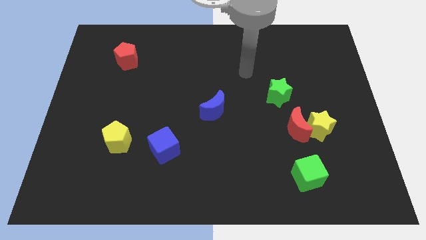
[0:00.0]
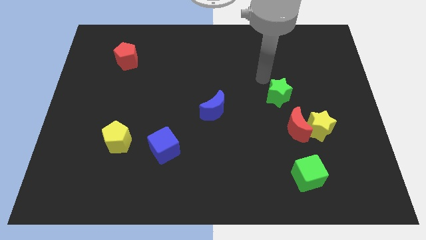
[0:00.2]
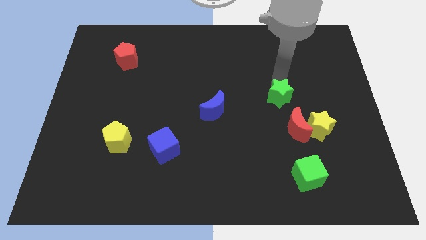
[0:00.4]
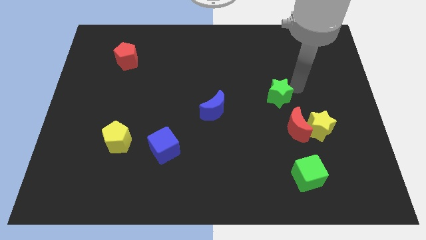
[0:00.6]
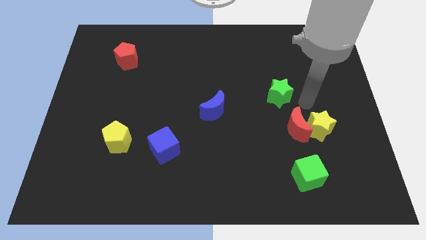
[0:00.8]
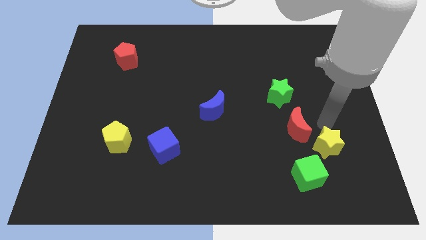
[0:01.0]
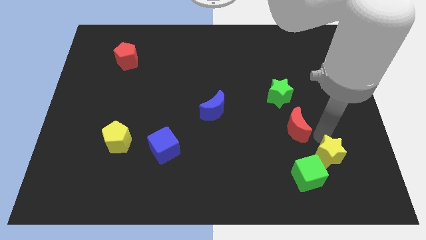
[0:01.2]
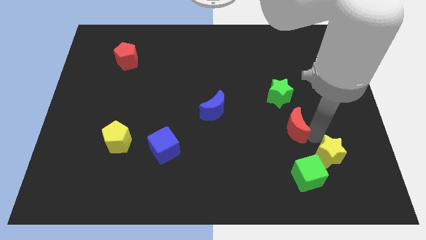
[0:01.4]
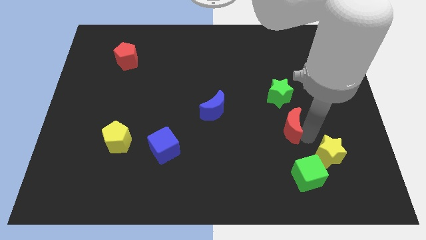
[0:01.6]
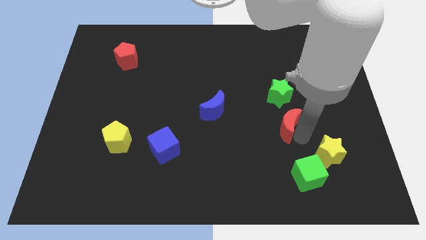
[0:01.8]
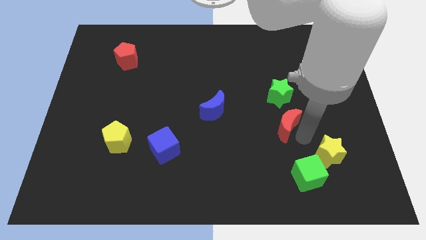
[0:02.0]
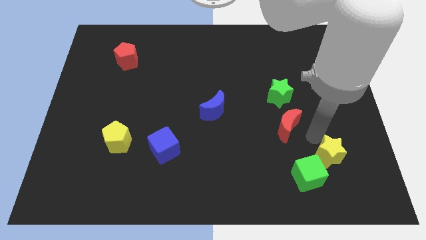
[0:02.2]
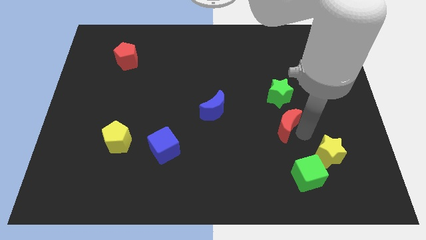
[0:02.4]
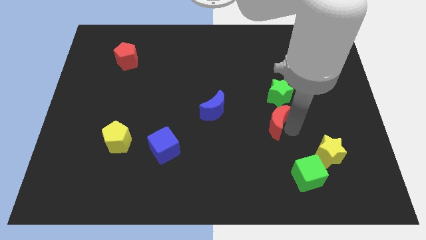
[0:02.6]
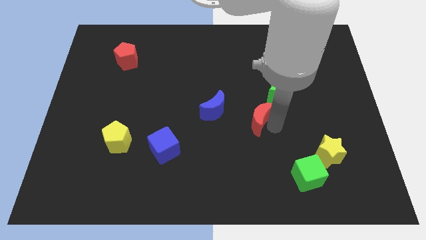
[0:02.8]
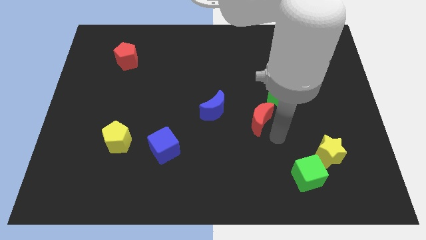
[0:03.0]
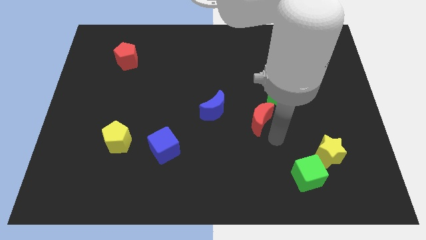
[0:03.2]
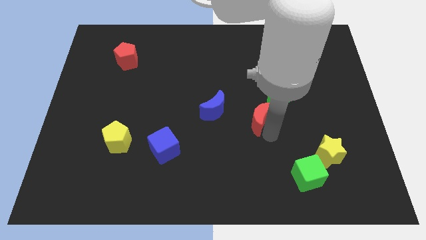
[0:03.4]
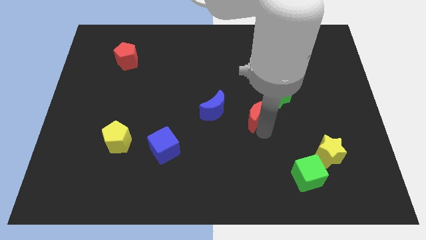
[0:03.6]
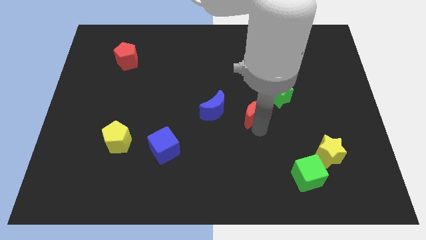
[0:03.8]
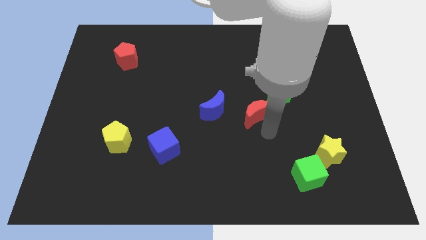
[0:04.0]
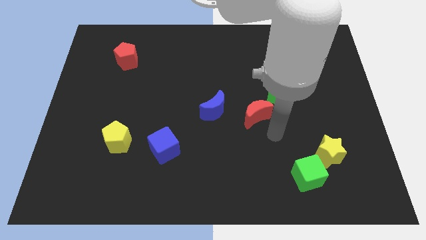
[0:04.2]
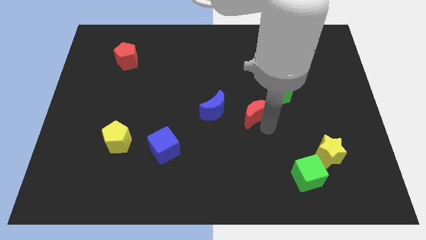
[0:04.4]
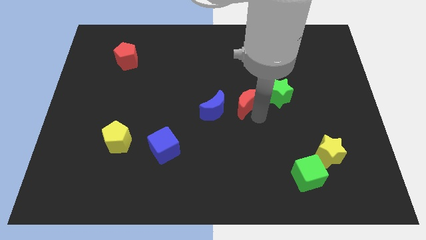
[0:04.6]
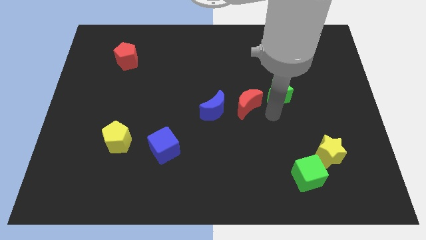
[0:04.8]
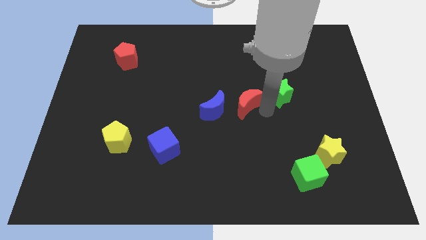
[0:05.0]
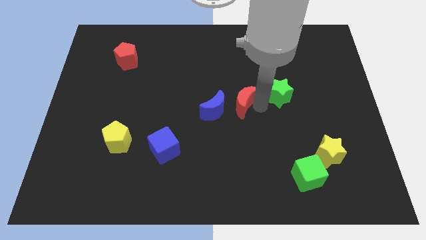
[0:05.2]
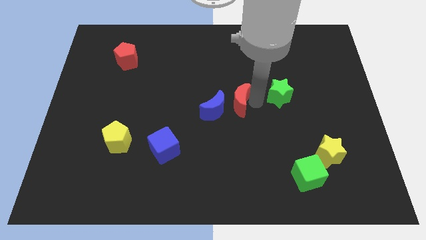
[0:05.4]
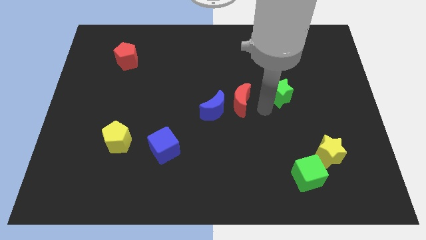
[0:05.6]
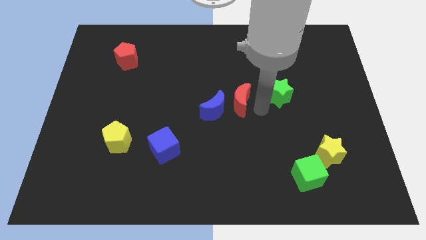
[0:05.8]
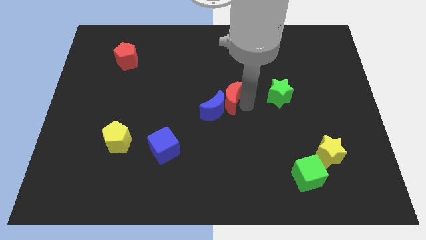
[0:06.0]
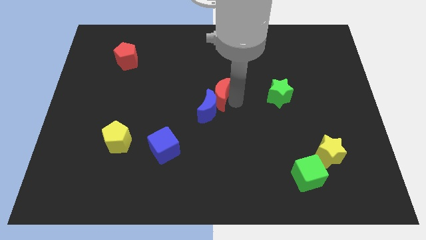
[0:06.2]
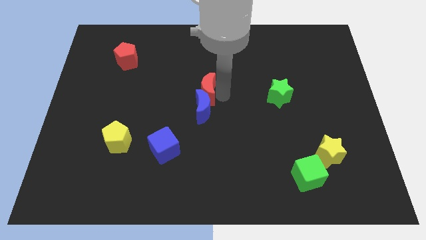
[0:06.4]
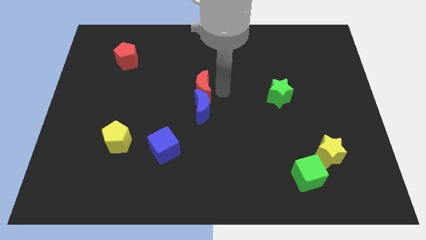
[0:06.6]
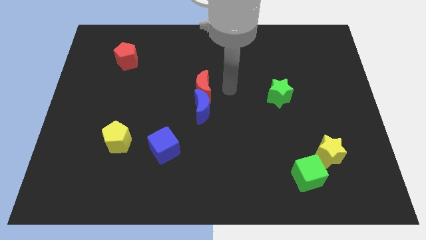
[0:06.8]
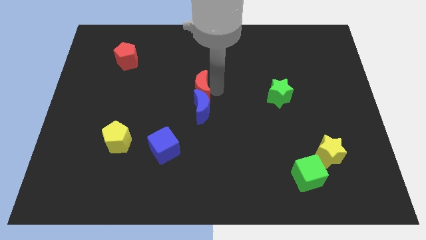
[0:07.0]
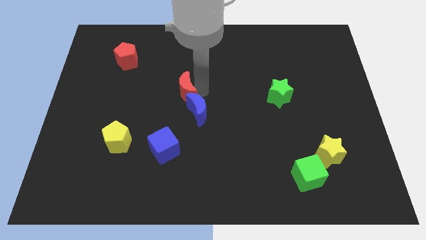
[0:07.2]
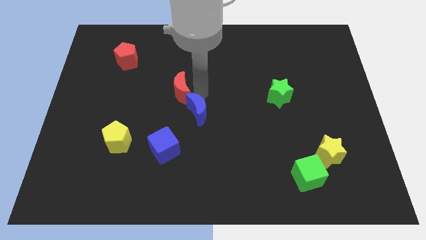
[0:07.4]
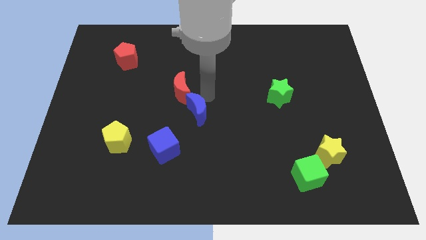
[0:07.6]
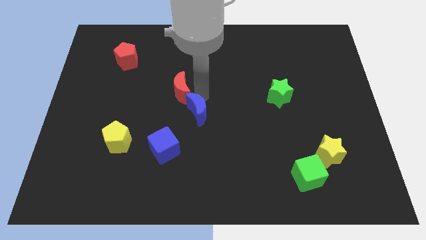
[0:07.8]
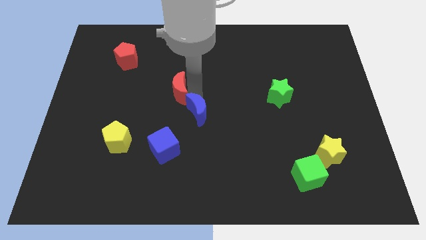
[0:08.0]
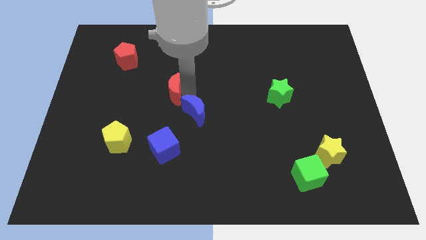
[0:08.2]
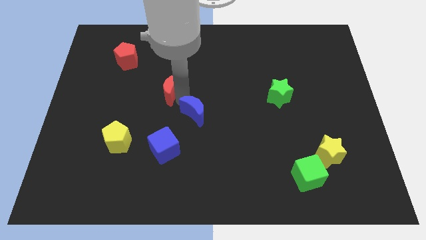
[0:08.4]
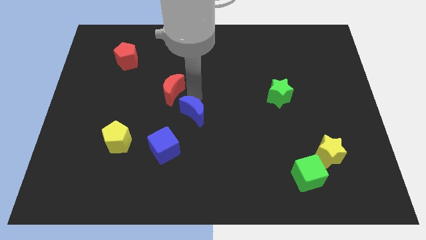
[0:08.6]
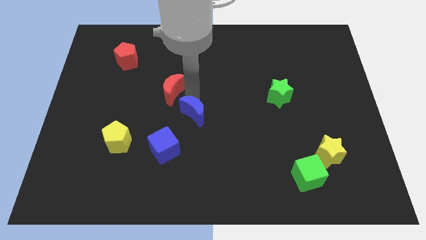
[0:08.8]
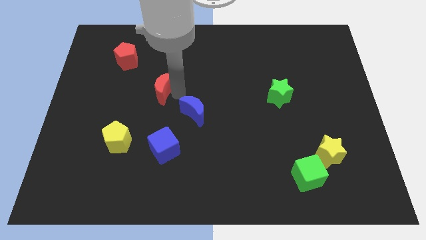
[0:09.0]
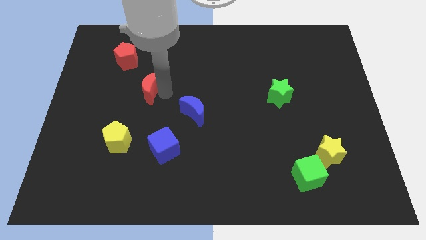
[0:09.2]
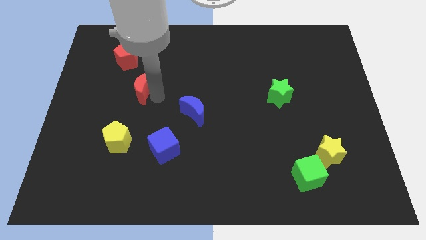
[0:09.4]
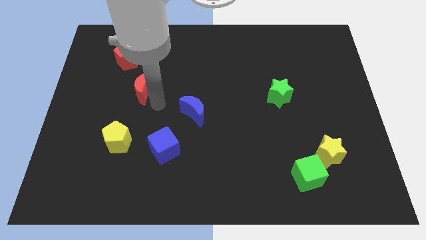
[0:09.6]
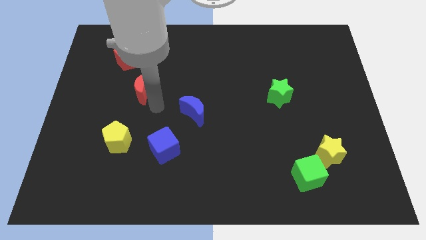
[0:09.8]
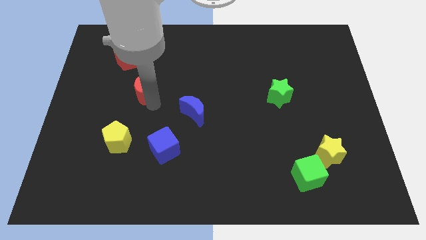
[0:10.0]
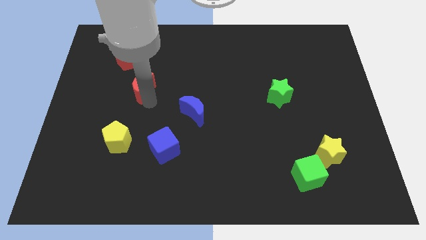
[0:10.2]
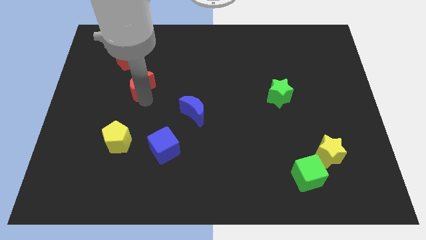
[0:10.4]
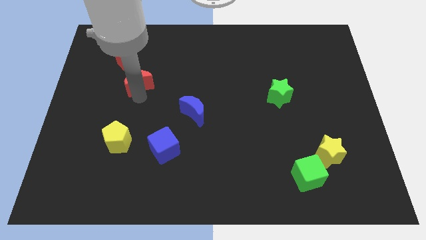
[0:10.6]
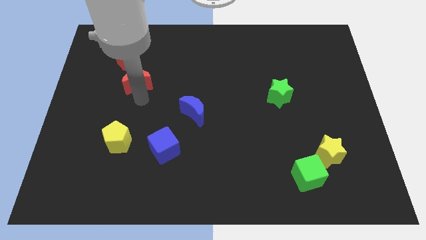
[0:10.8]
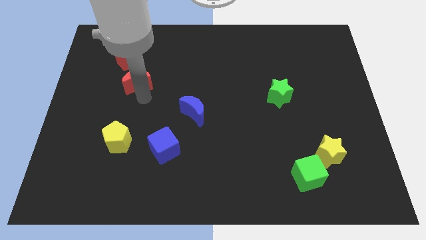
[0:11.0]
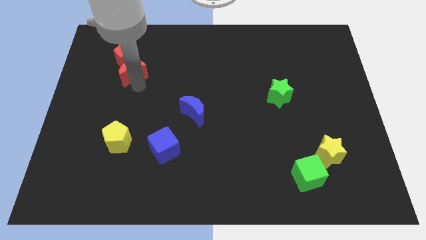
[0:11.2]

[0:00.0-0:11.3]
push the red moon towards the red pentagon

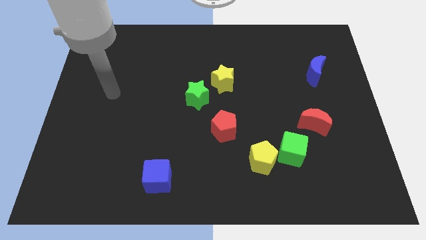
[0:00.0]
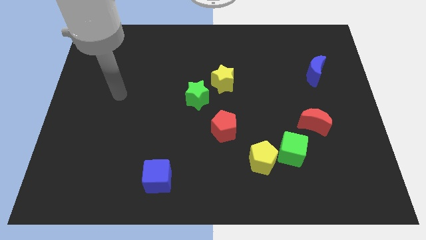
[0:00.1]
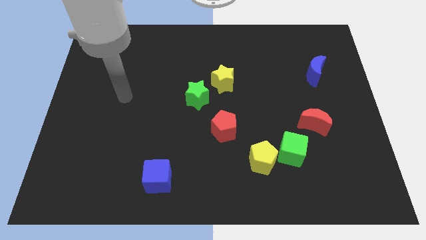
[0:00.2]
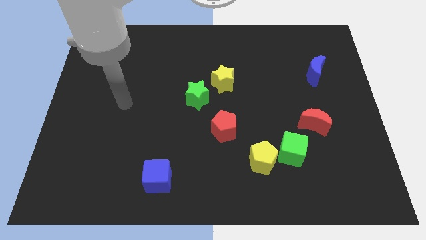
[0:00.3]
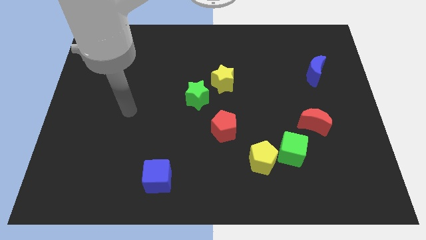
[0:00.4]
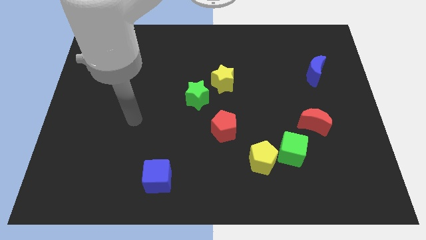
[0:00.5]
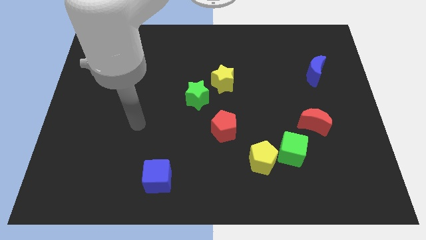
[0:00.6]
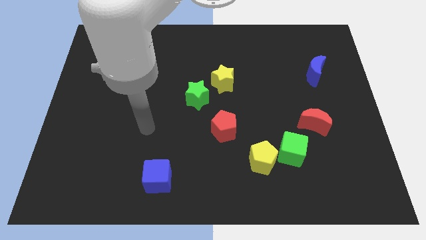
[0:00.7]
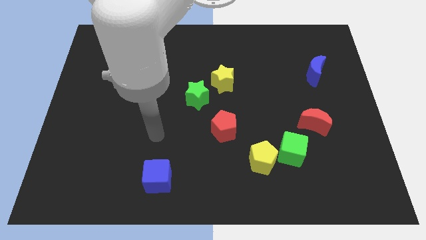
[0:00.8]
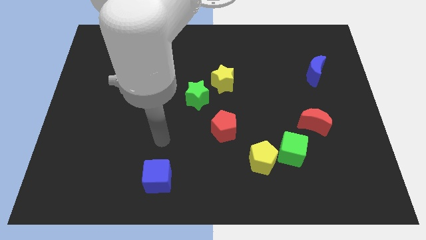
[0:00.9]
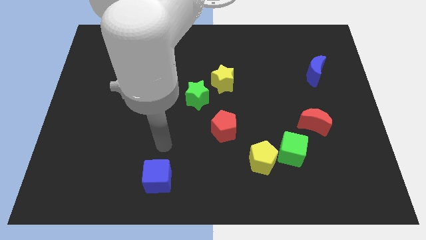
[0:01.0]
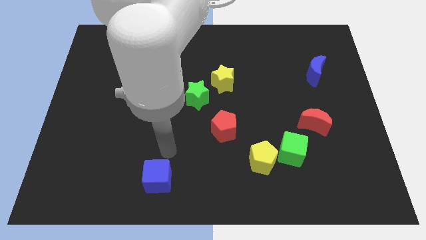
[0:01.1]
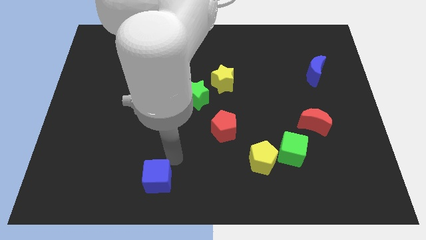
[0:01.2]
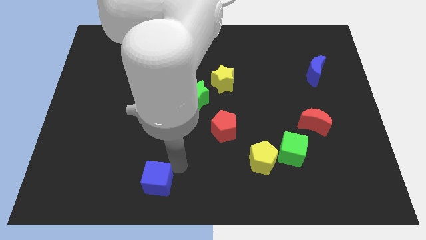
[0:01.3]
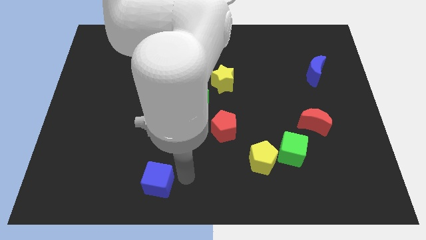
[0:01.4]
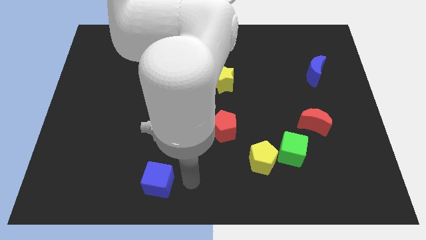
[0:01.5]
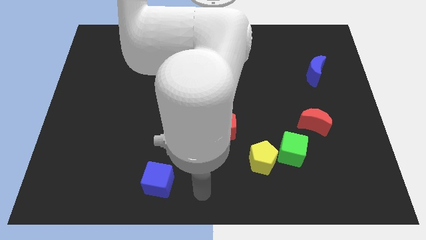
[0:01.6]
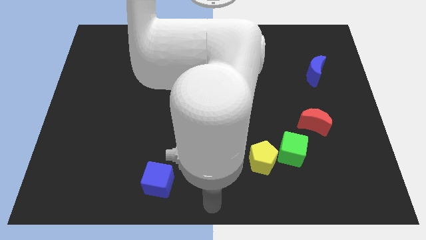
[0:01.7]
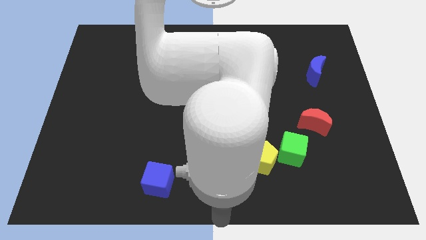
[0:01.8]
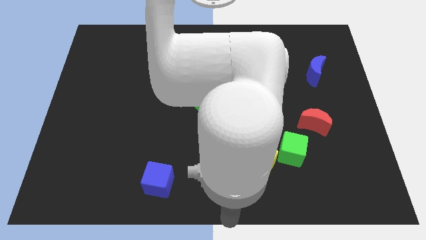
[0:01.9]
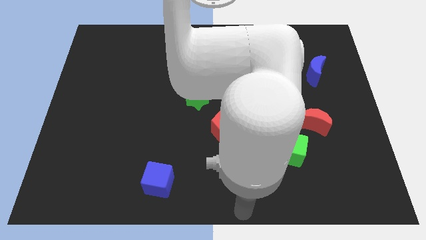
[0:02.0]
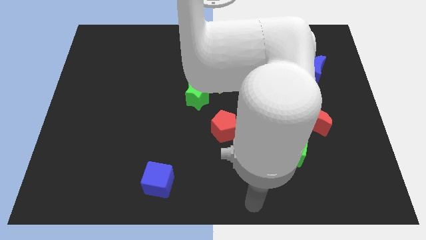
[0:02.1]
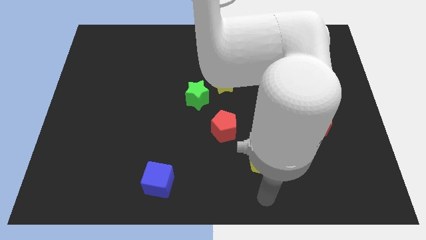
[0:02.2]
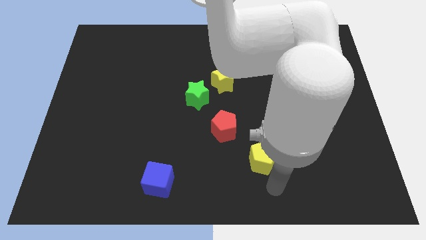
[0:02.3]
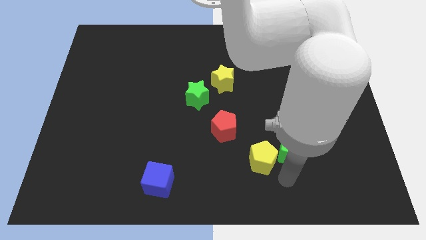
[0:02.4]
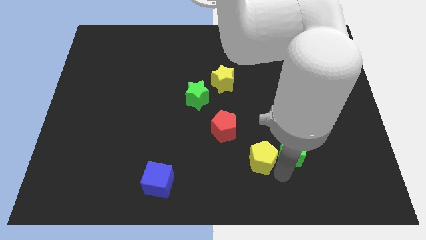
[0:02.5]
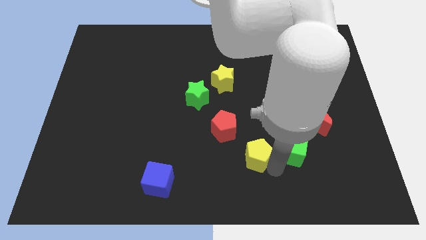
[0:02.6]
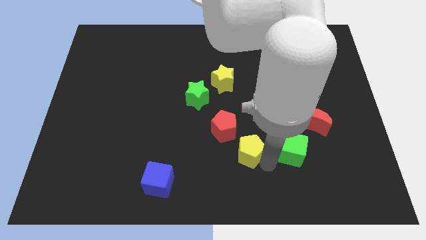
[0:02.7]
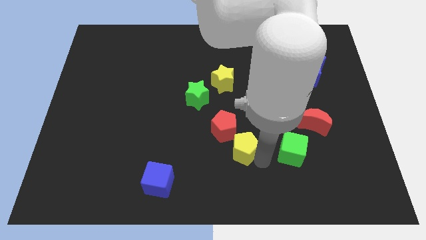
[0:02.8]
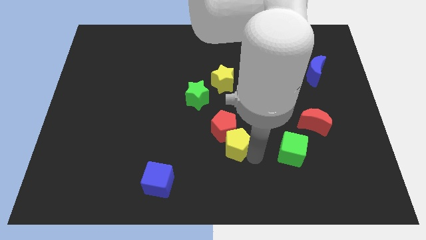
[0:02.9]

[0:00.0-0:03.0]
push the yellow pentagon to the red pentagon
